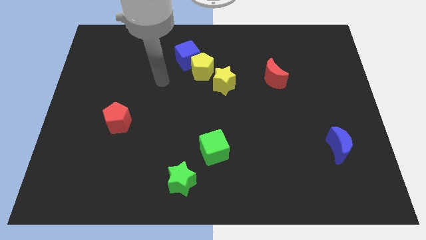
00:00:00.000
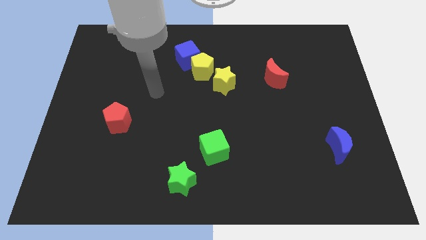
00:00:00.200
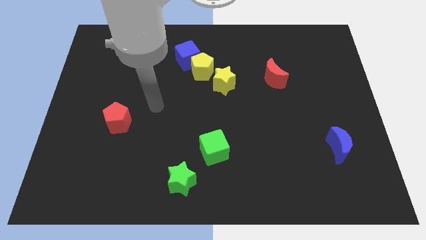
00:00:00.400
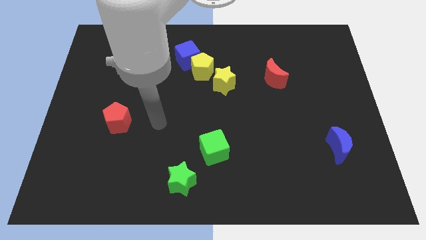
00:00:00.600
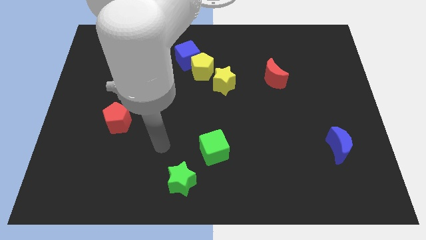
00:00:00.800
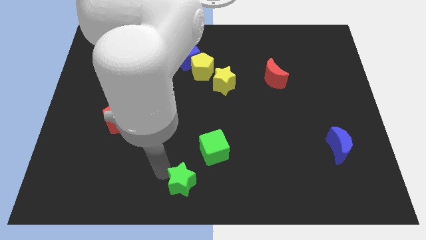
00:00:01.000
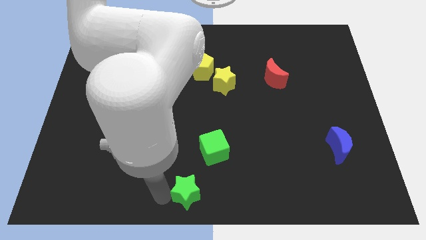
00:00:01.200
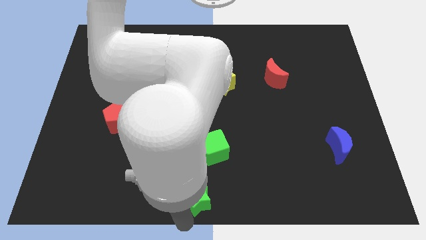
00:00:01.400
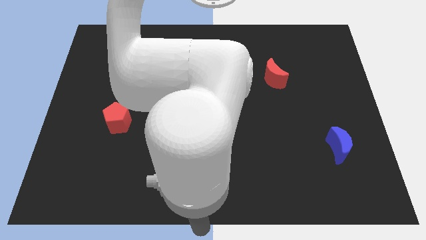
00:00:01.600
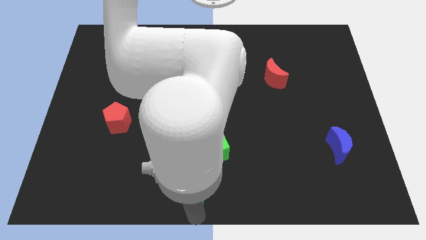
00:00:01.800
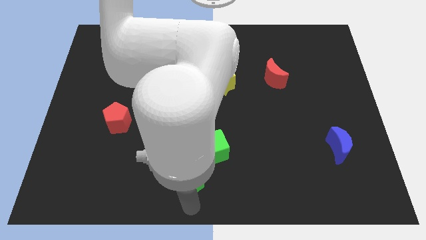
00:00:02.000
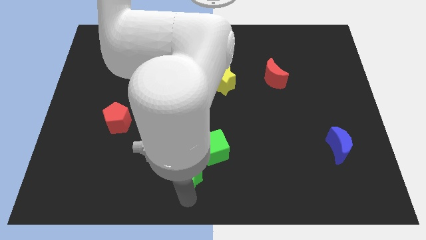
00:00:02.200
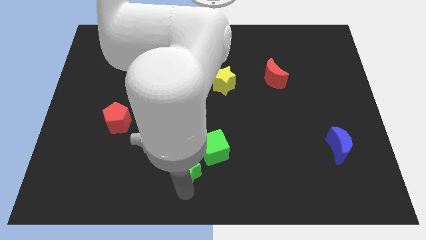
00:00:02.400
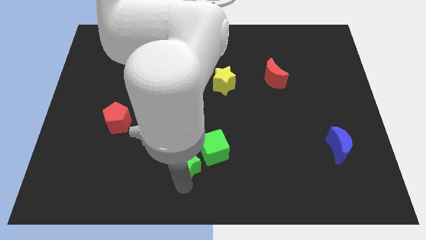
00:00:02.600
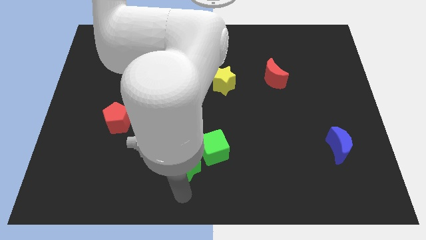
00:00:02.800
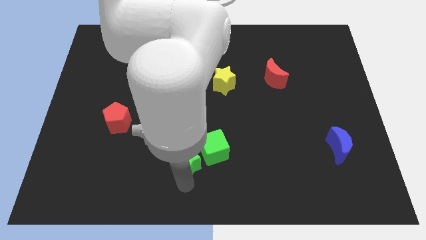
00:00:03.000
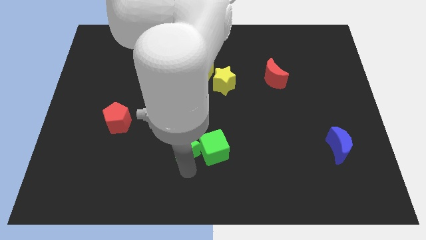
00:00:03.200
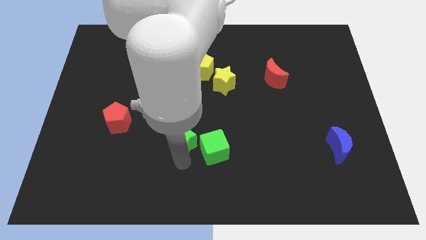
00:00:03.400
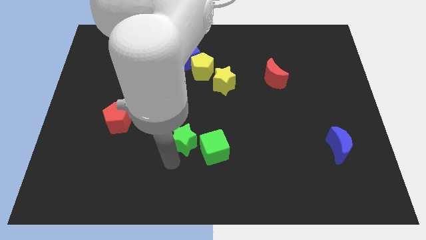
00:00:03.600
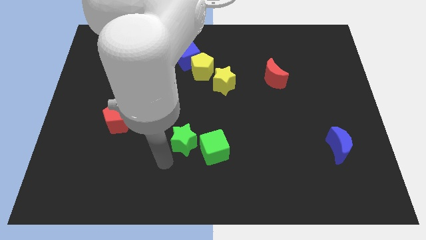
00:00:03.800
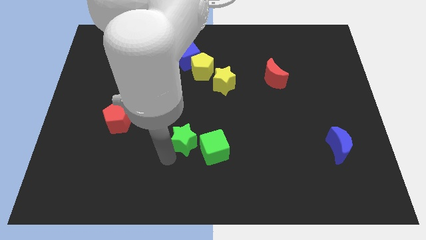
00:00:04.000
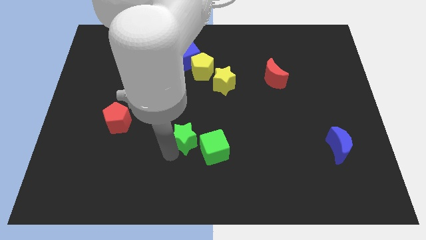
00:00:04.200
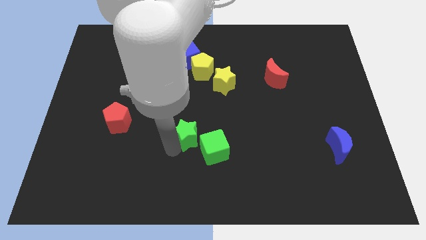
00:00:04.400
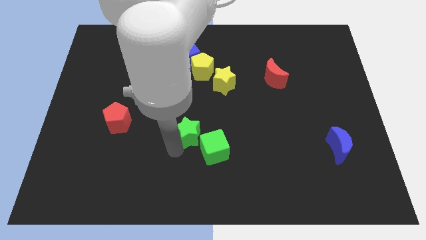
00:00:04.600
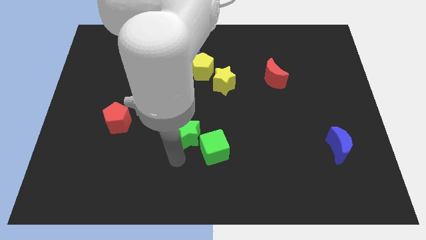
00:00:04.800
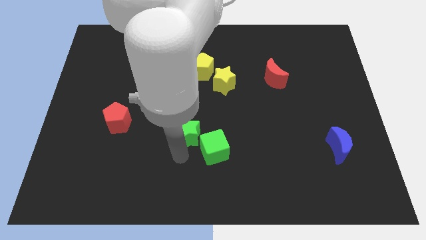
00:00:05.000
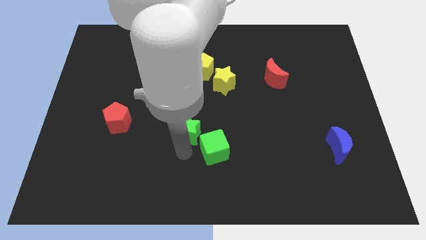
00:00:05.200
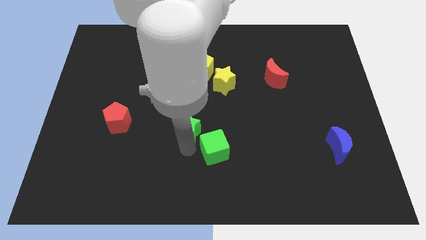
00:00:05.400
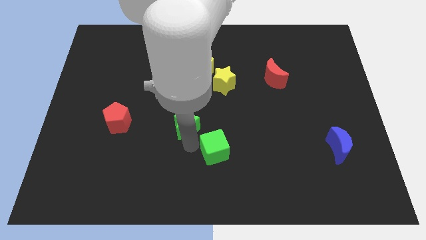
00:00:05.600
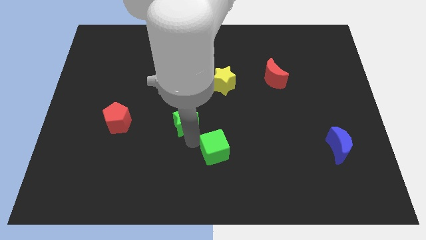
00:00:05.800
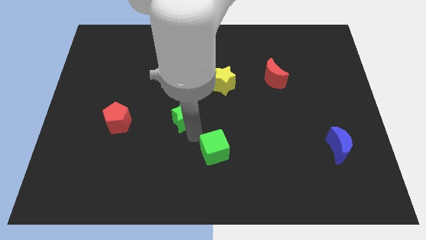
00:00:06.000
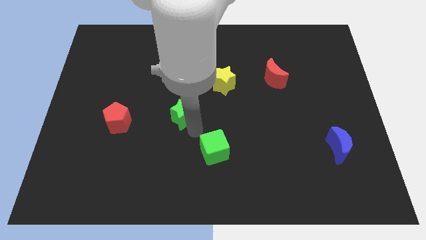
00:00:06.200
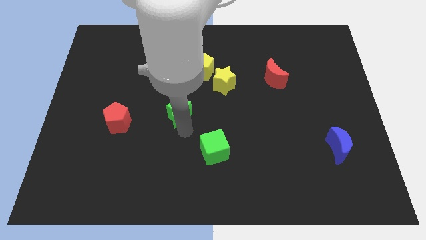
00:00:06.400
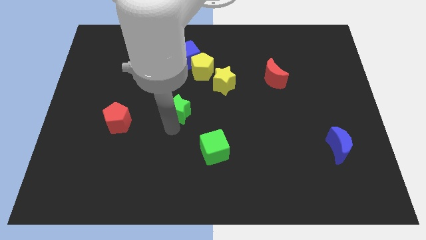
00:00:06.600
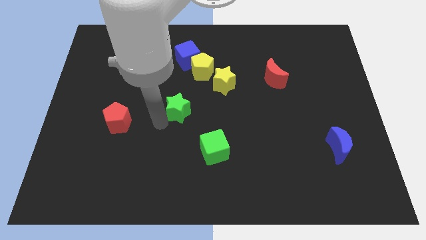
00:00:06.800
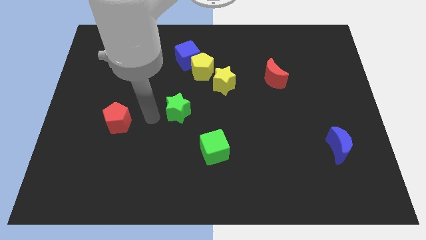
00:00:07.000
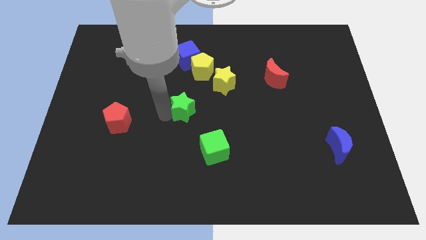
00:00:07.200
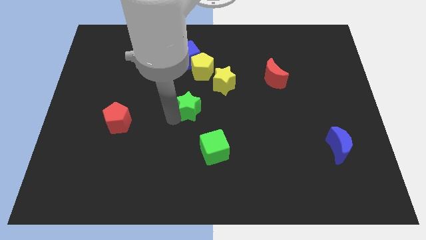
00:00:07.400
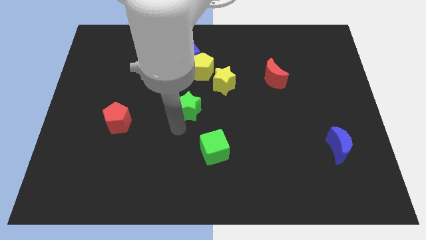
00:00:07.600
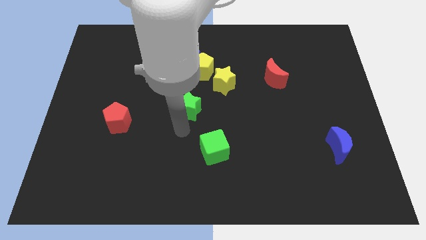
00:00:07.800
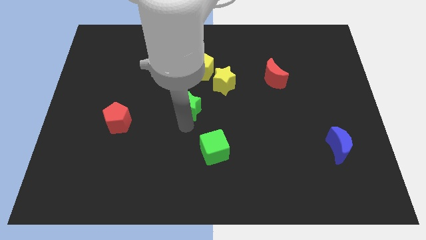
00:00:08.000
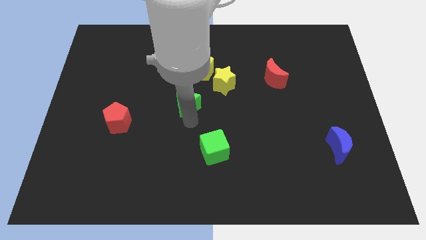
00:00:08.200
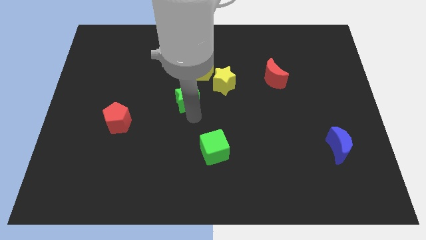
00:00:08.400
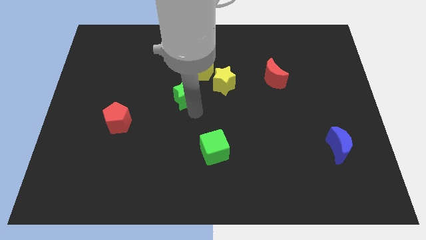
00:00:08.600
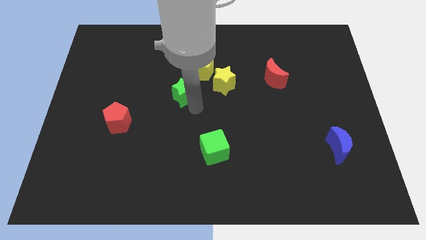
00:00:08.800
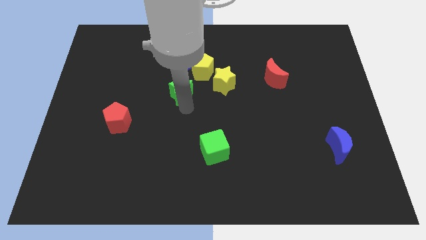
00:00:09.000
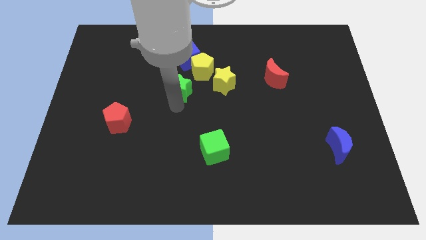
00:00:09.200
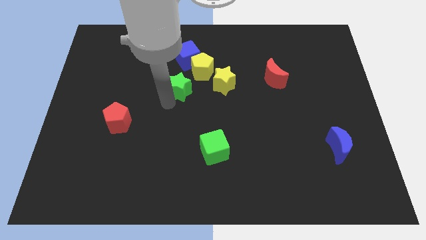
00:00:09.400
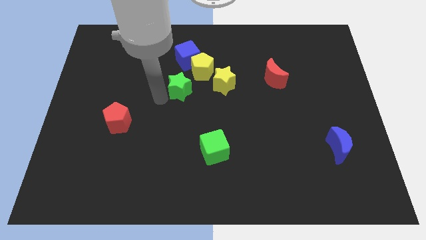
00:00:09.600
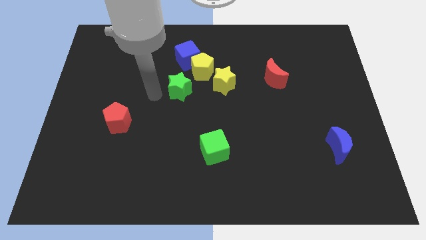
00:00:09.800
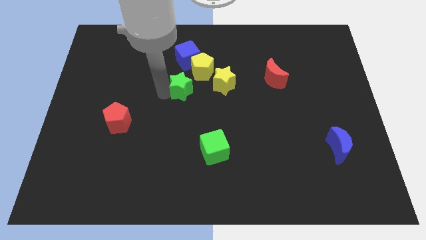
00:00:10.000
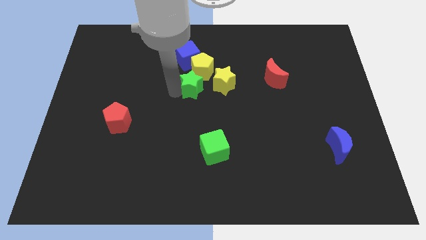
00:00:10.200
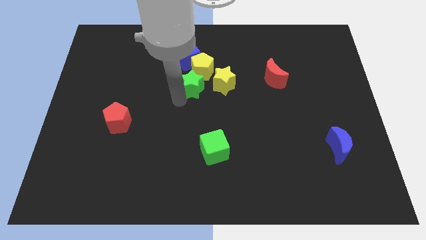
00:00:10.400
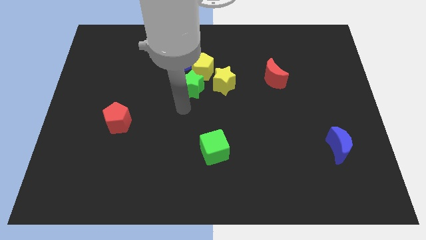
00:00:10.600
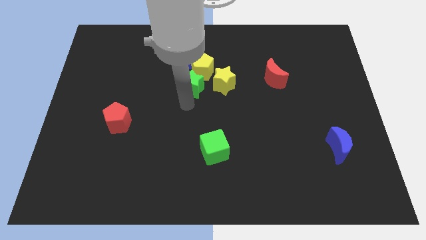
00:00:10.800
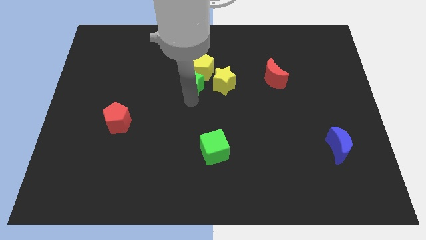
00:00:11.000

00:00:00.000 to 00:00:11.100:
slide the green star next to the yellow pentagon

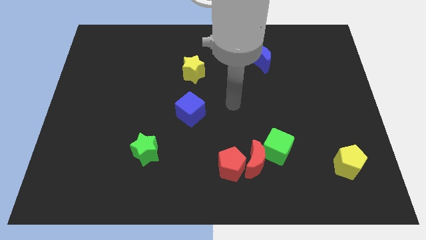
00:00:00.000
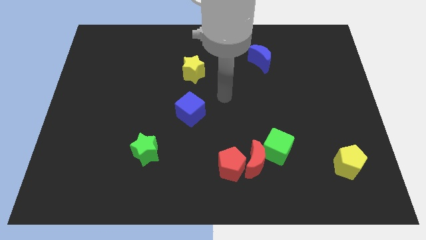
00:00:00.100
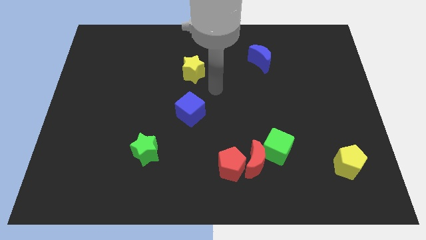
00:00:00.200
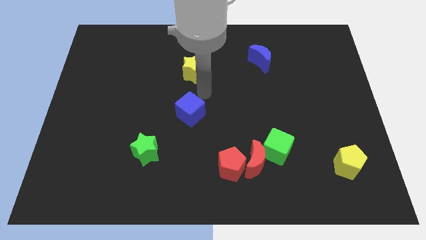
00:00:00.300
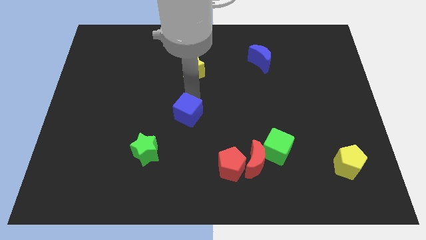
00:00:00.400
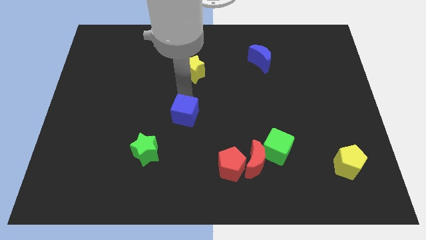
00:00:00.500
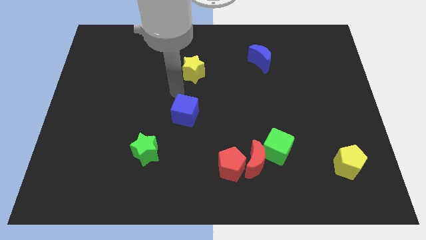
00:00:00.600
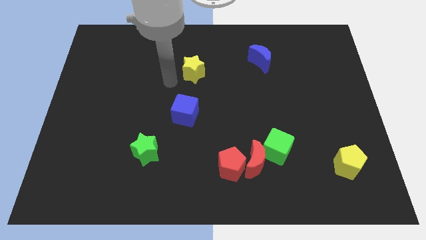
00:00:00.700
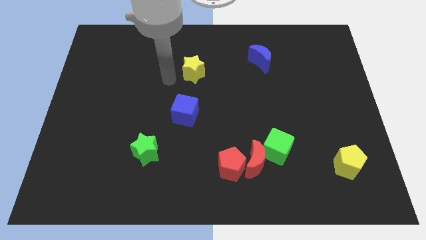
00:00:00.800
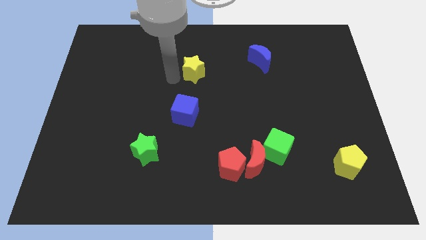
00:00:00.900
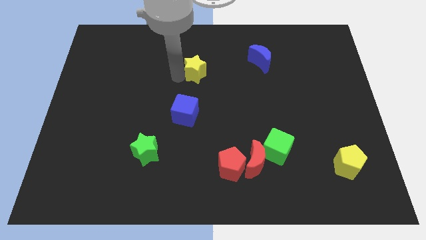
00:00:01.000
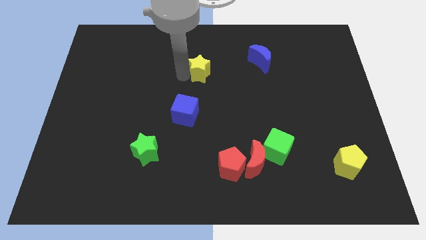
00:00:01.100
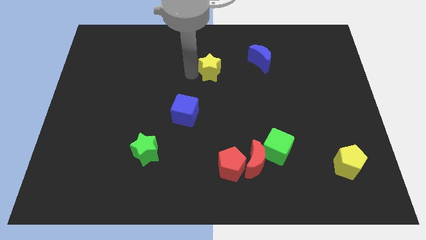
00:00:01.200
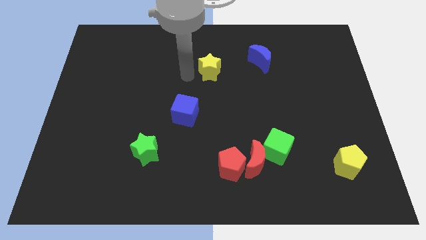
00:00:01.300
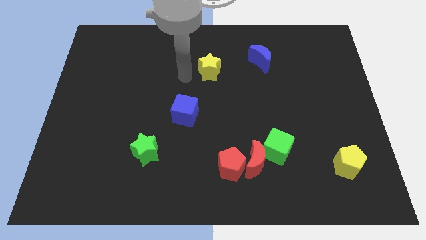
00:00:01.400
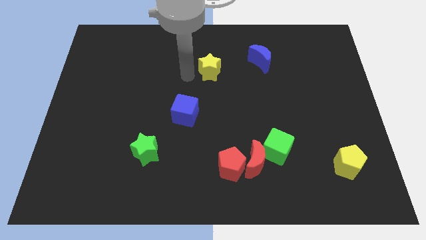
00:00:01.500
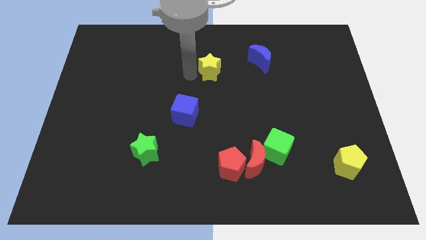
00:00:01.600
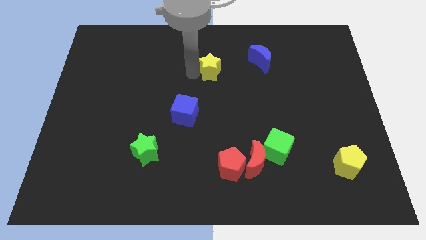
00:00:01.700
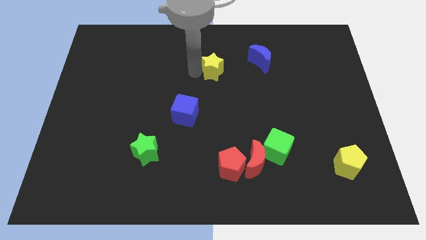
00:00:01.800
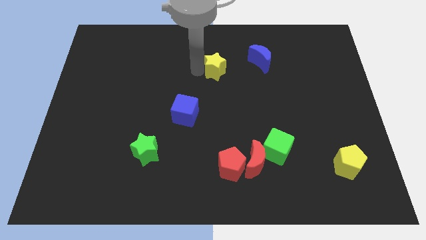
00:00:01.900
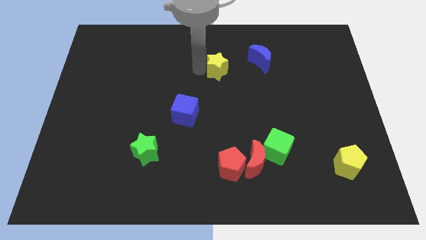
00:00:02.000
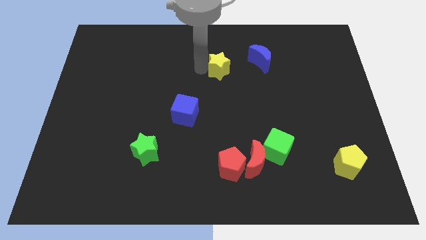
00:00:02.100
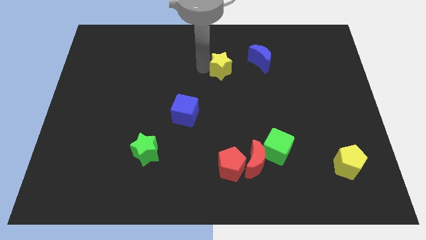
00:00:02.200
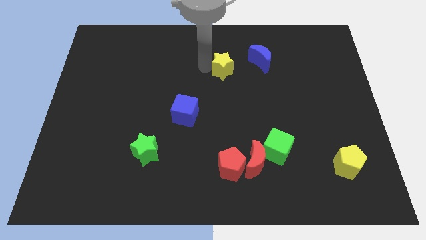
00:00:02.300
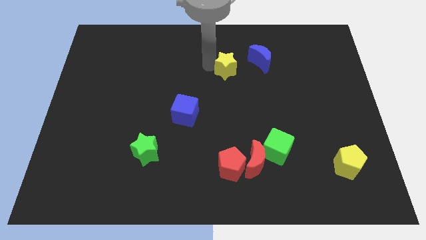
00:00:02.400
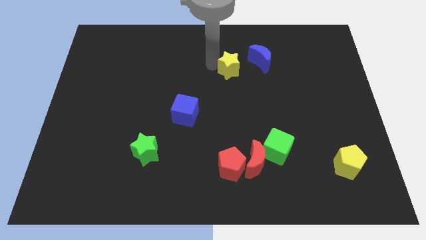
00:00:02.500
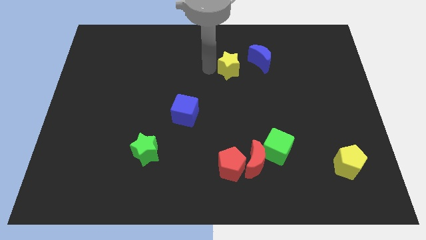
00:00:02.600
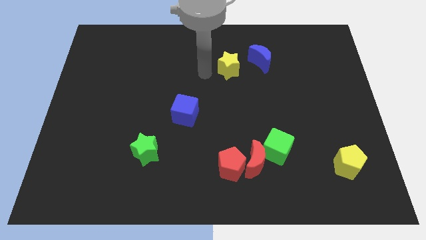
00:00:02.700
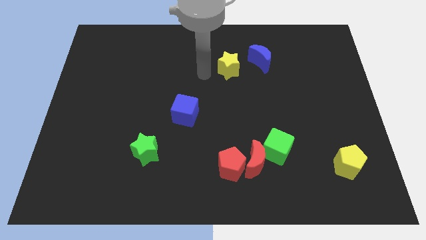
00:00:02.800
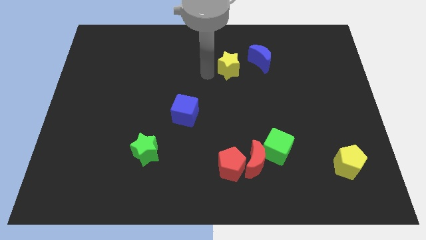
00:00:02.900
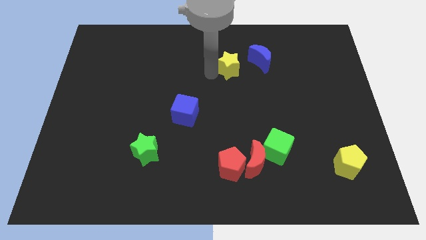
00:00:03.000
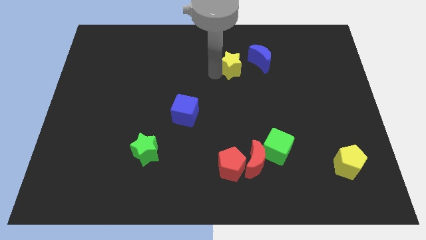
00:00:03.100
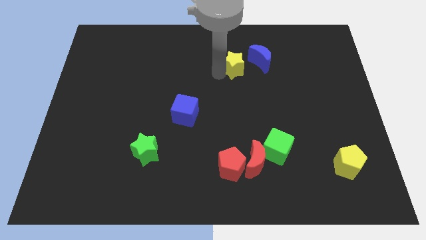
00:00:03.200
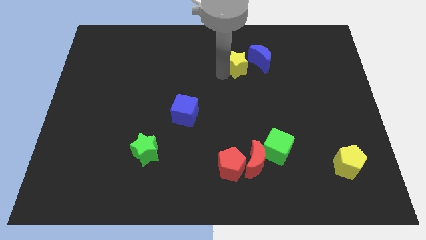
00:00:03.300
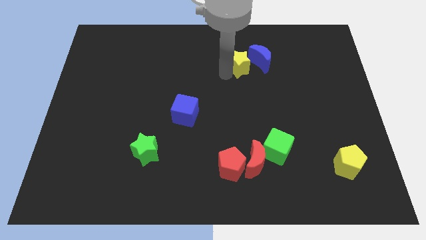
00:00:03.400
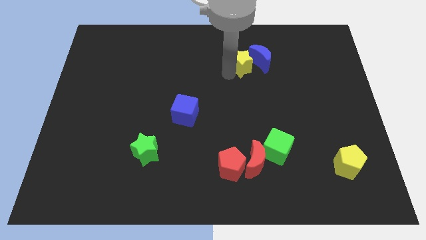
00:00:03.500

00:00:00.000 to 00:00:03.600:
move the yellow star next to the blue moon
